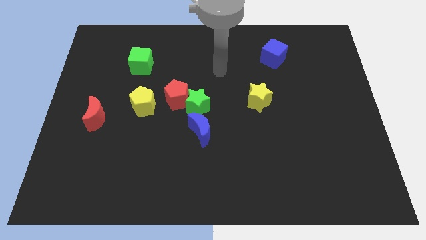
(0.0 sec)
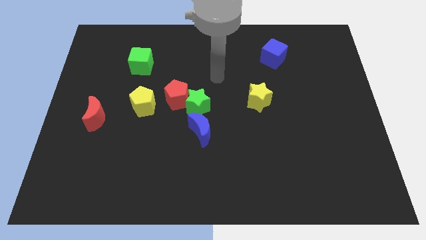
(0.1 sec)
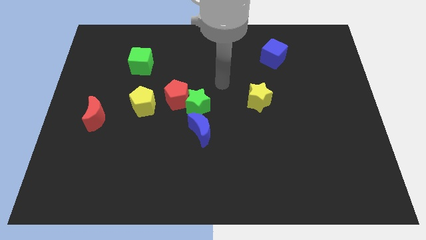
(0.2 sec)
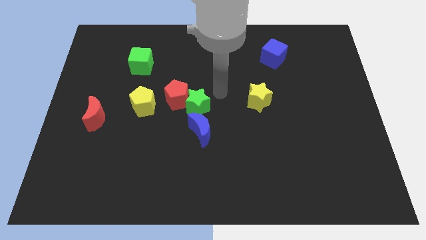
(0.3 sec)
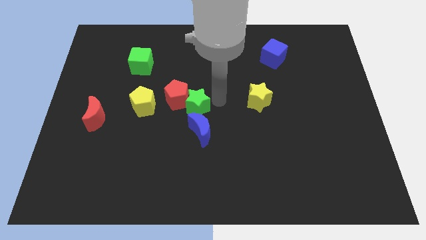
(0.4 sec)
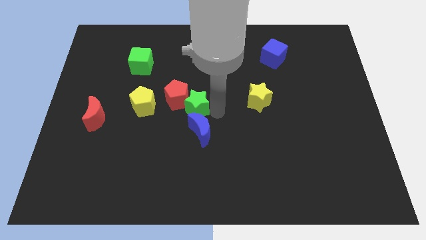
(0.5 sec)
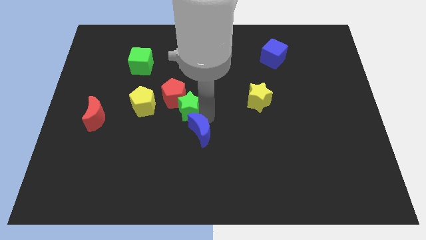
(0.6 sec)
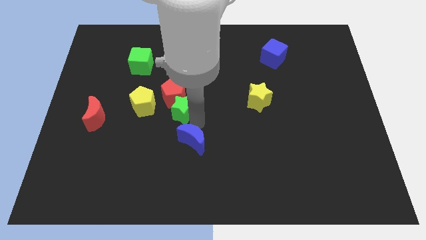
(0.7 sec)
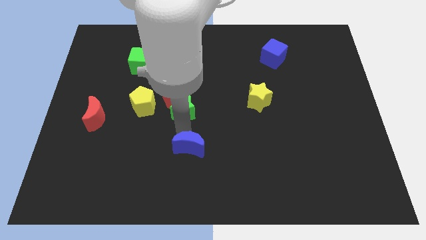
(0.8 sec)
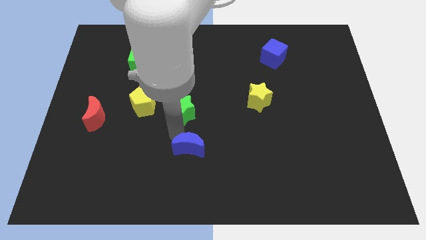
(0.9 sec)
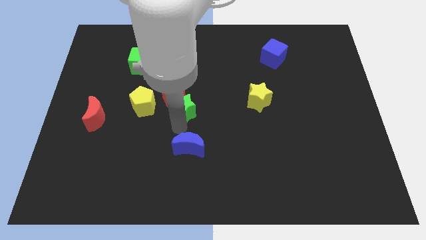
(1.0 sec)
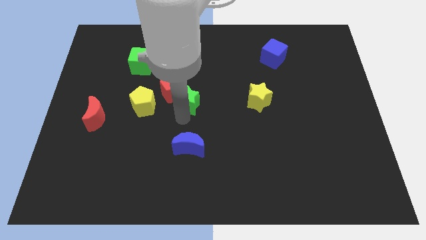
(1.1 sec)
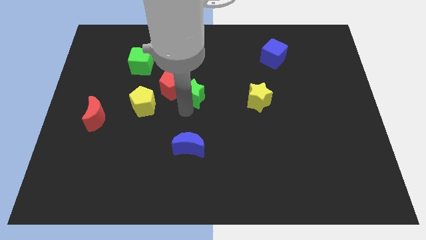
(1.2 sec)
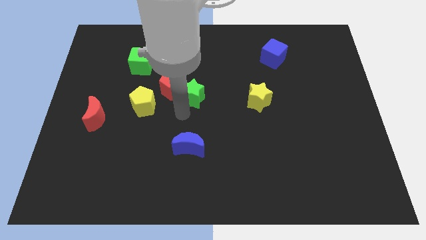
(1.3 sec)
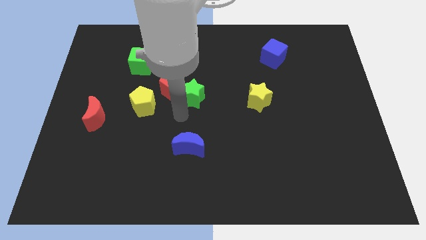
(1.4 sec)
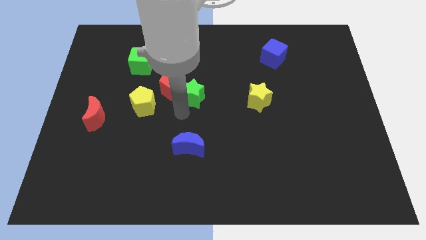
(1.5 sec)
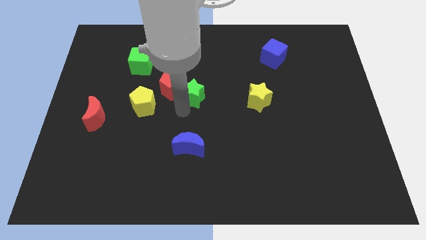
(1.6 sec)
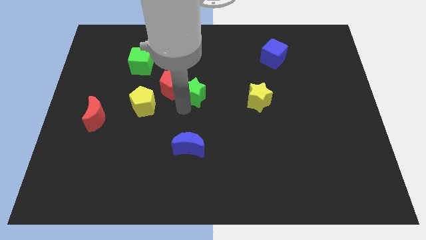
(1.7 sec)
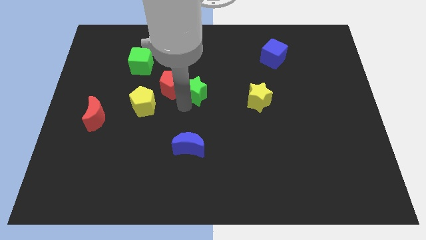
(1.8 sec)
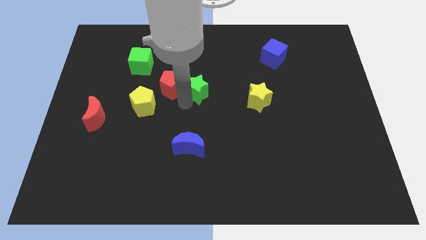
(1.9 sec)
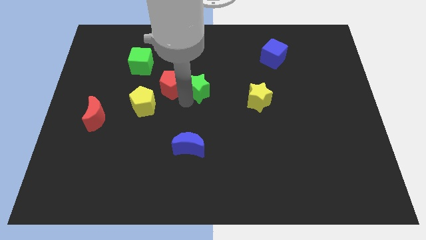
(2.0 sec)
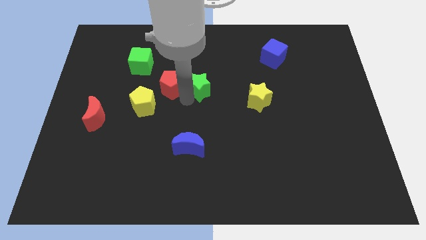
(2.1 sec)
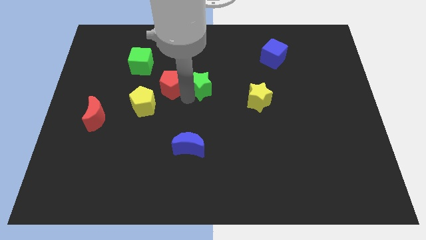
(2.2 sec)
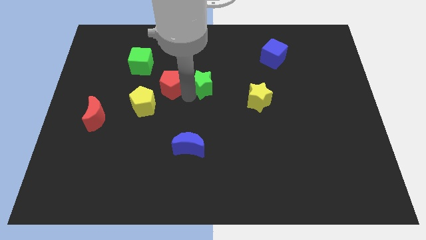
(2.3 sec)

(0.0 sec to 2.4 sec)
pull the green star apart from the red pentagon and blue moon

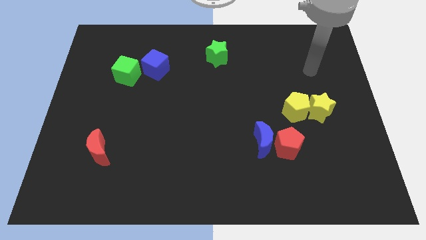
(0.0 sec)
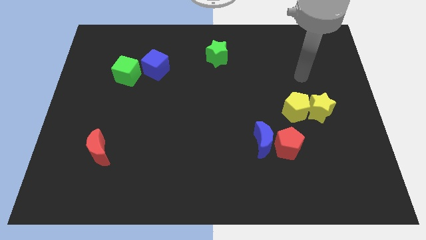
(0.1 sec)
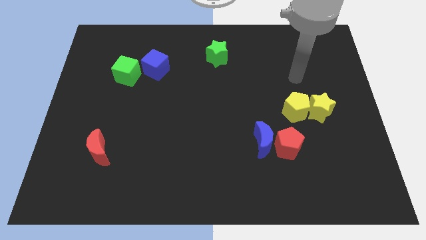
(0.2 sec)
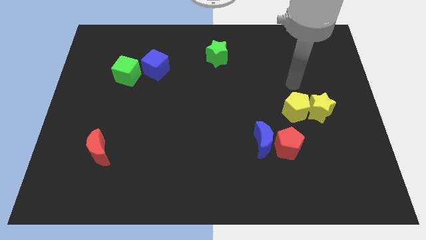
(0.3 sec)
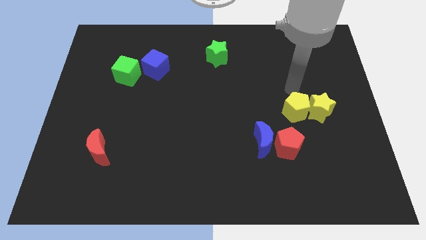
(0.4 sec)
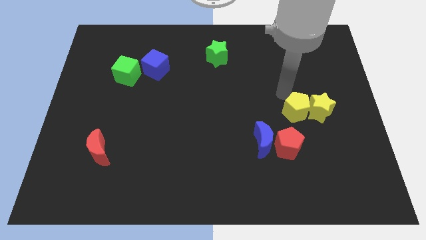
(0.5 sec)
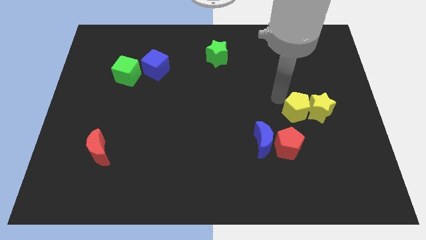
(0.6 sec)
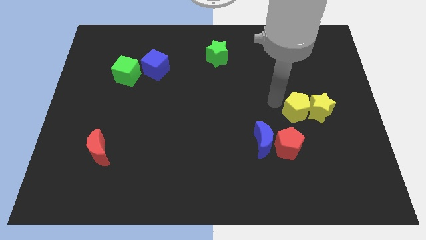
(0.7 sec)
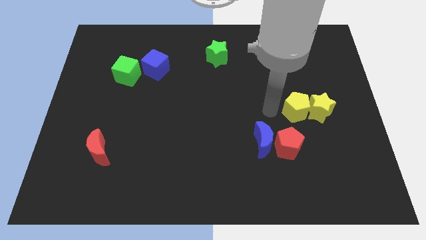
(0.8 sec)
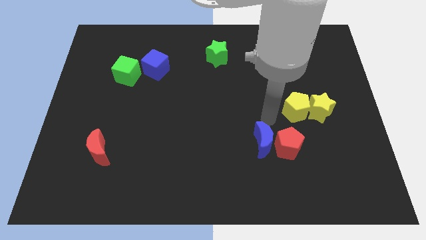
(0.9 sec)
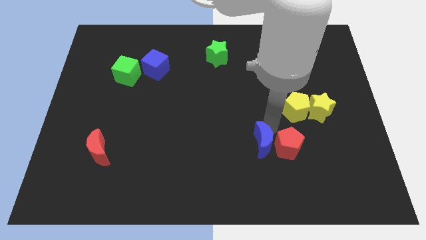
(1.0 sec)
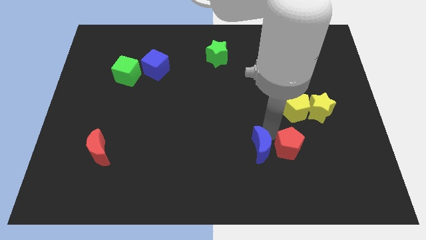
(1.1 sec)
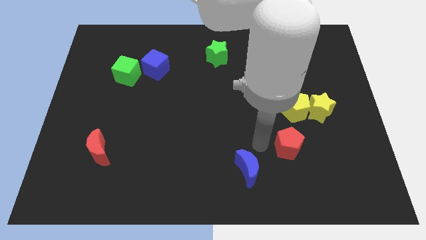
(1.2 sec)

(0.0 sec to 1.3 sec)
move the red pentagon away from the blue moon

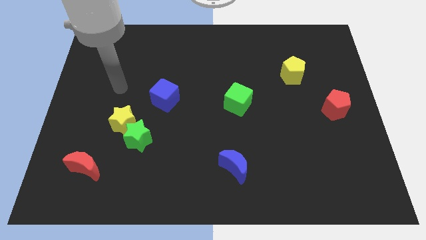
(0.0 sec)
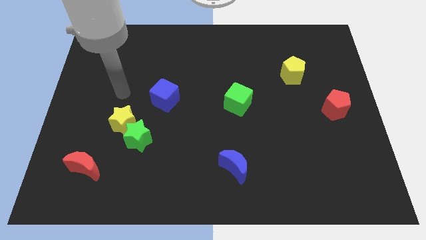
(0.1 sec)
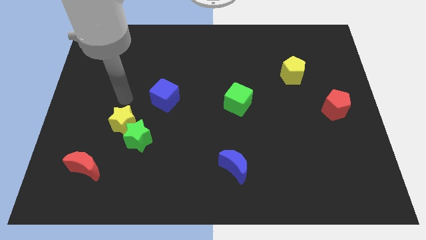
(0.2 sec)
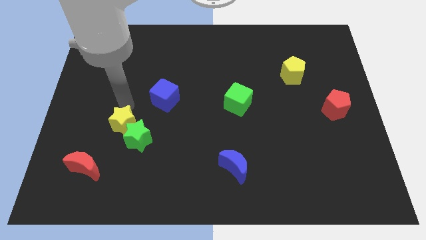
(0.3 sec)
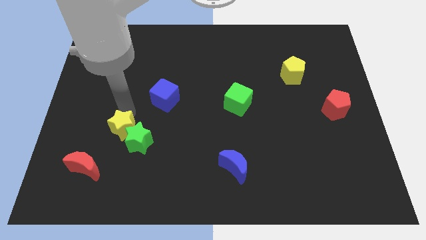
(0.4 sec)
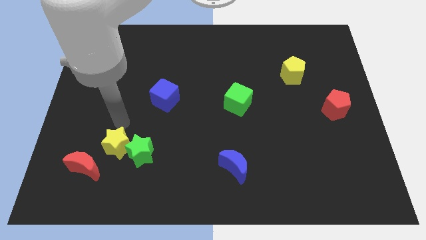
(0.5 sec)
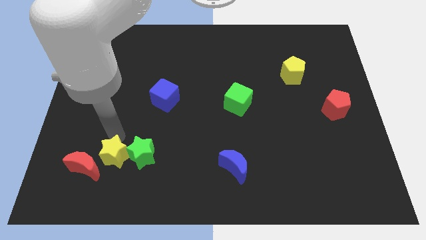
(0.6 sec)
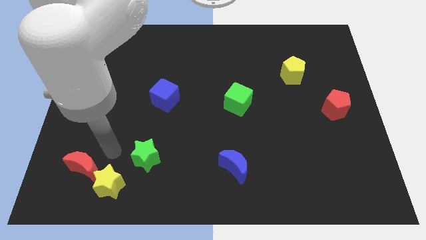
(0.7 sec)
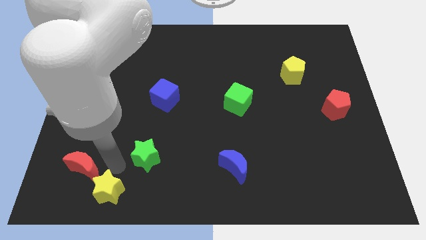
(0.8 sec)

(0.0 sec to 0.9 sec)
pull the green star apart from the yellow star

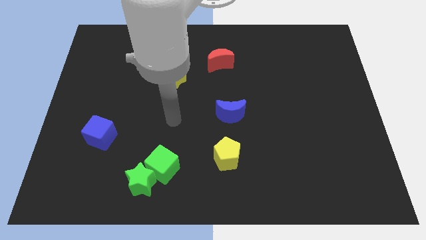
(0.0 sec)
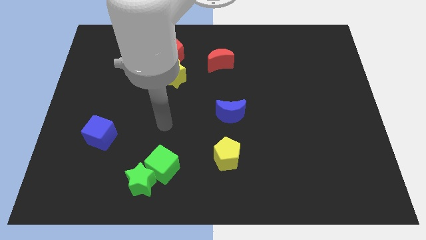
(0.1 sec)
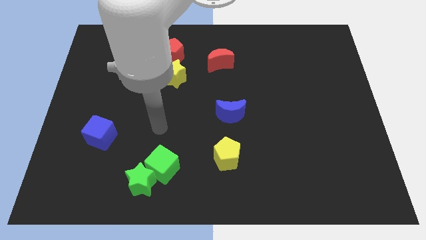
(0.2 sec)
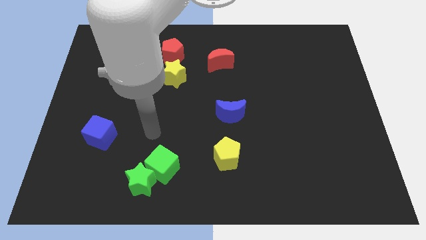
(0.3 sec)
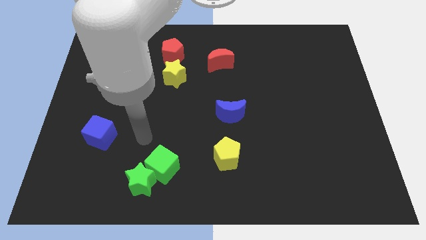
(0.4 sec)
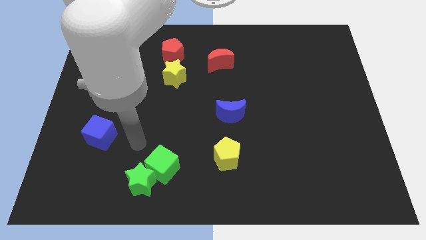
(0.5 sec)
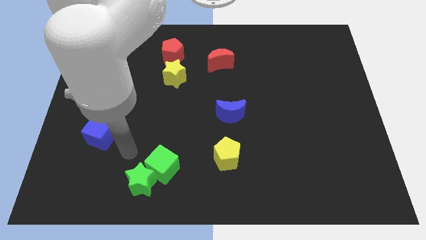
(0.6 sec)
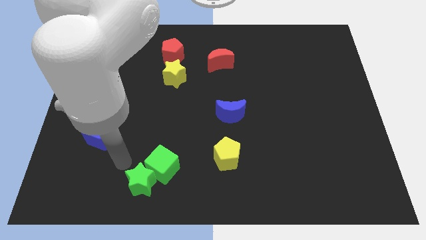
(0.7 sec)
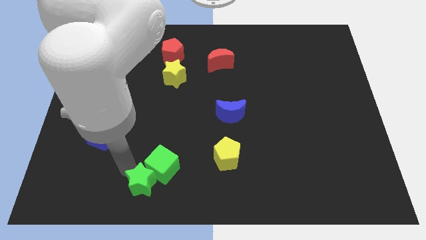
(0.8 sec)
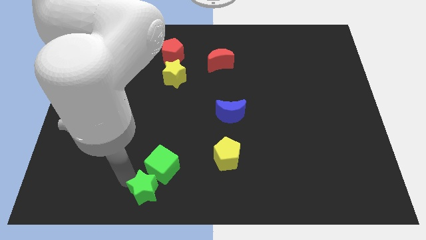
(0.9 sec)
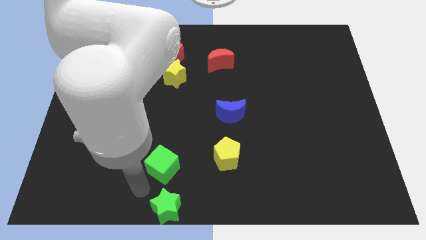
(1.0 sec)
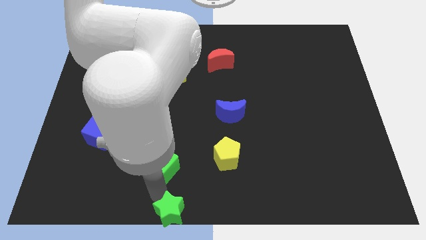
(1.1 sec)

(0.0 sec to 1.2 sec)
move the green cube away from the green star

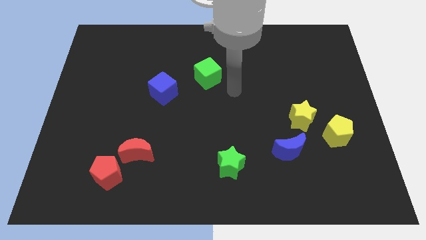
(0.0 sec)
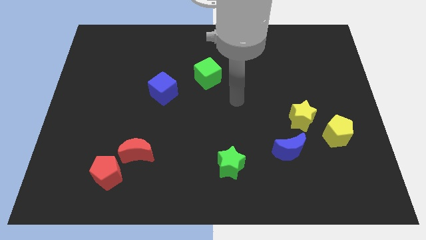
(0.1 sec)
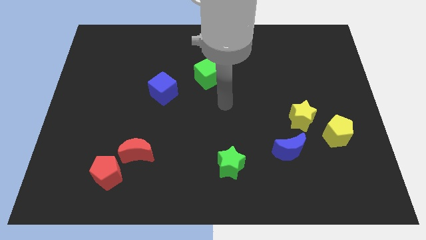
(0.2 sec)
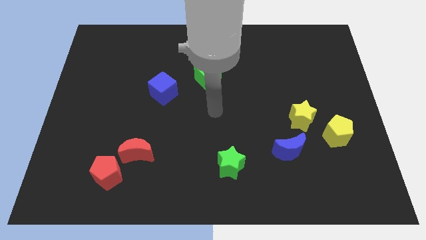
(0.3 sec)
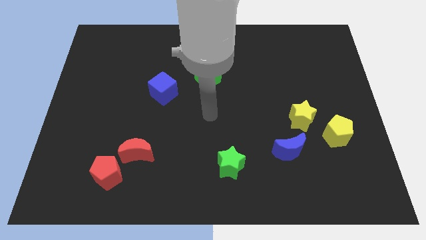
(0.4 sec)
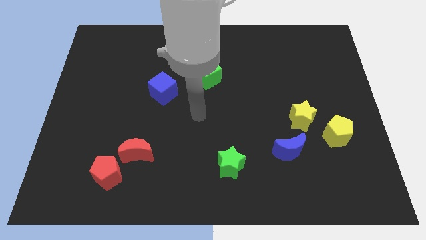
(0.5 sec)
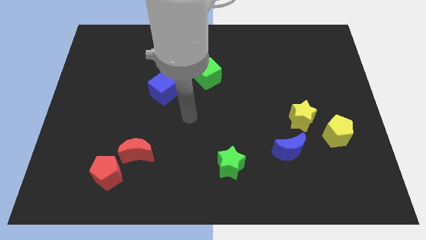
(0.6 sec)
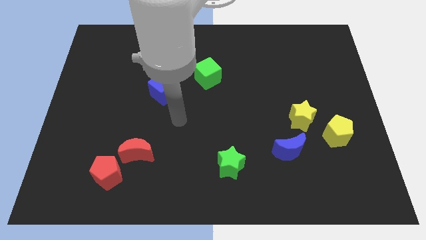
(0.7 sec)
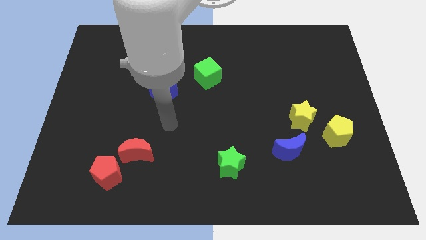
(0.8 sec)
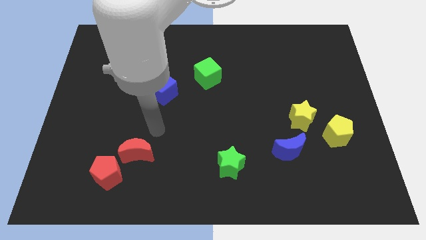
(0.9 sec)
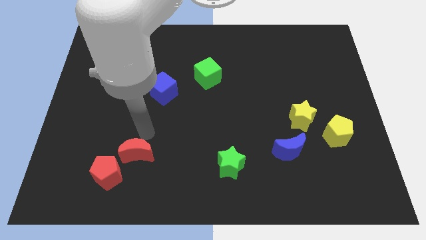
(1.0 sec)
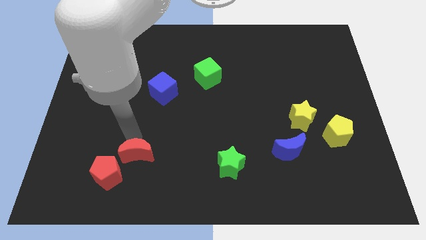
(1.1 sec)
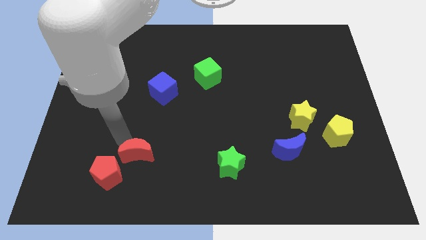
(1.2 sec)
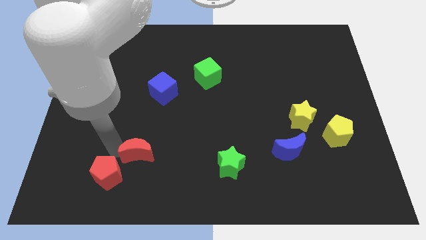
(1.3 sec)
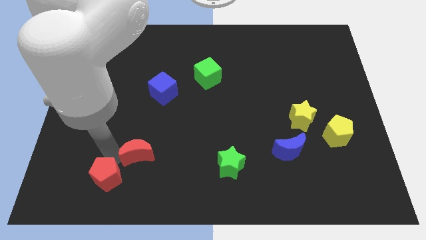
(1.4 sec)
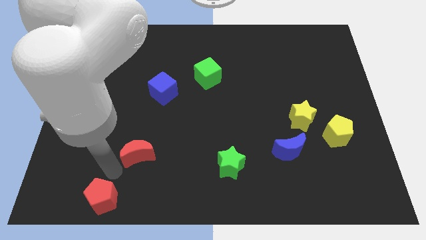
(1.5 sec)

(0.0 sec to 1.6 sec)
separate the red moon from the red pentagon

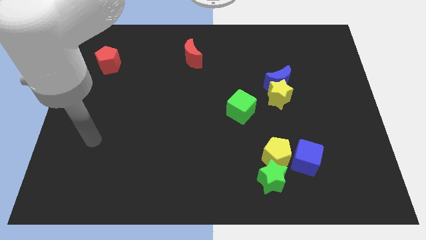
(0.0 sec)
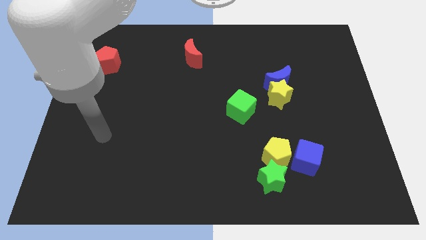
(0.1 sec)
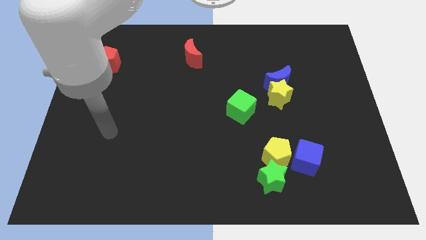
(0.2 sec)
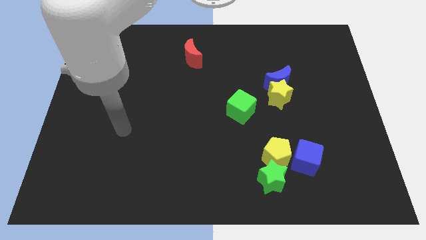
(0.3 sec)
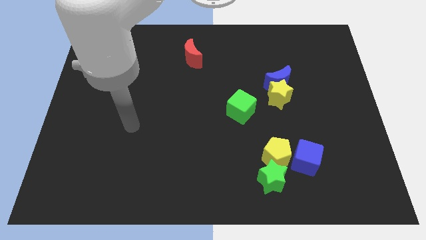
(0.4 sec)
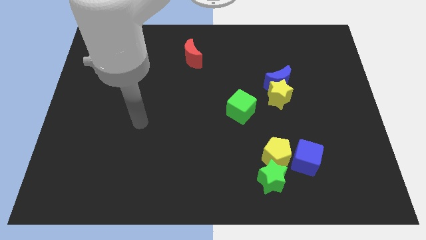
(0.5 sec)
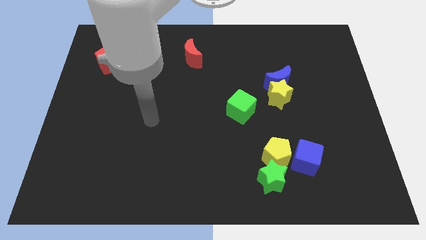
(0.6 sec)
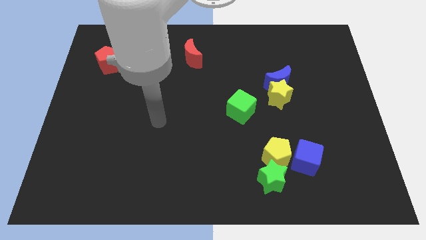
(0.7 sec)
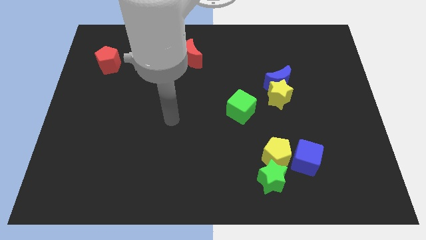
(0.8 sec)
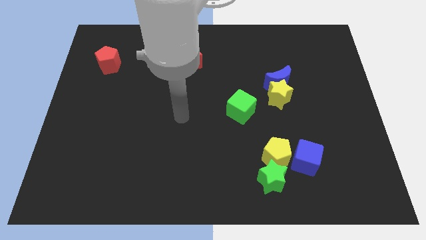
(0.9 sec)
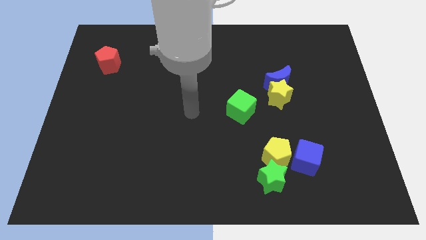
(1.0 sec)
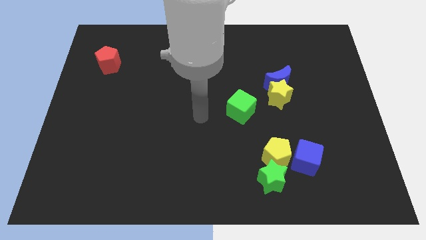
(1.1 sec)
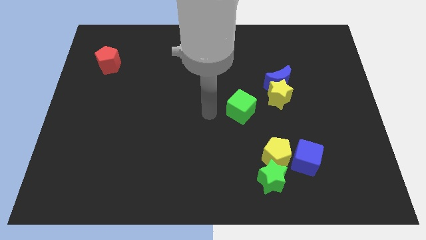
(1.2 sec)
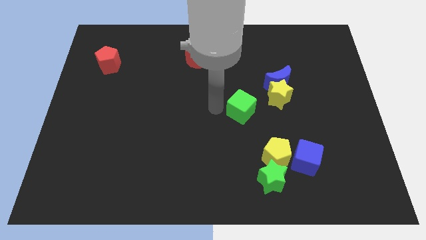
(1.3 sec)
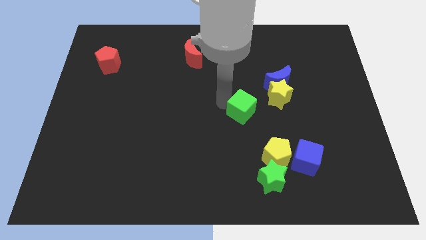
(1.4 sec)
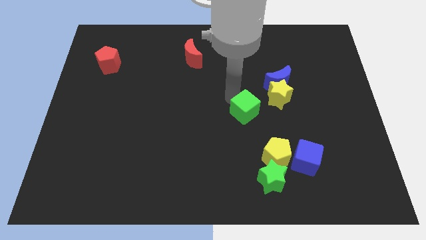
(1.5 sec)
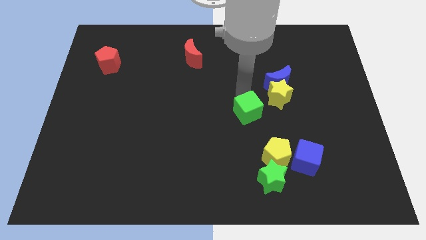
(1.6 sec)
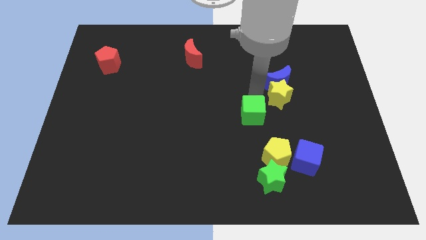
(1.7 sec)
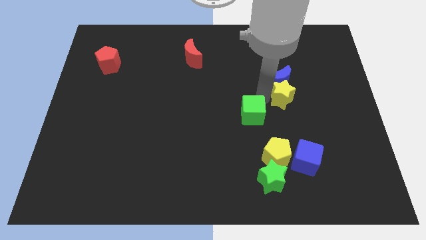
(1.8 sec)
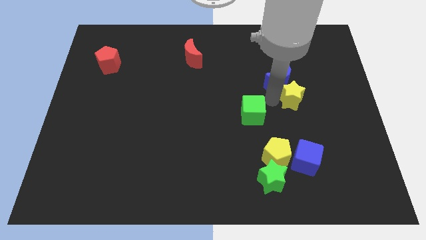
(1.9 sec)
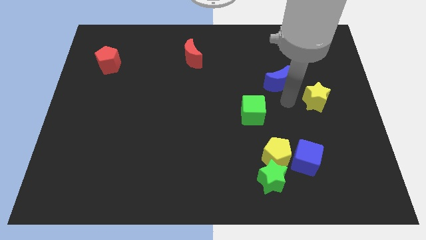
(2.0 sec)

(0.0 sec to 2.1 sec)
pull the blue moon apart from the yellow star
